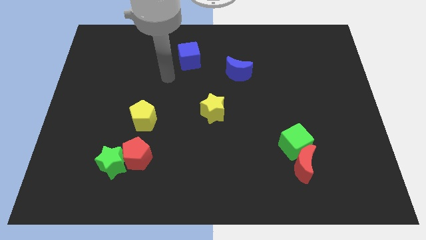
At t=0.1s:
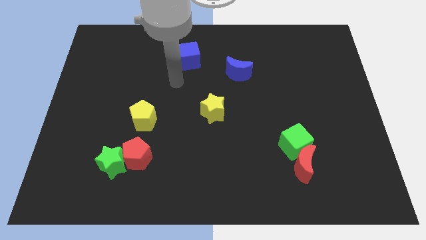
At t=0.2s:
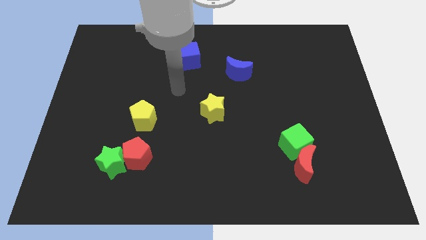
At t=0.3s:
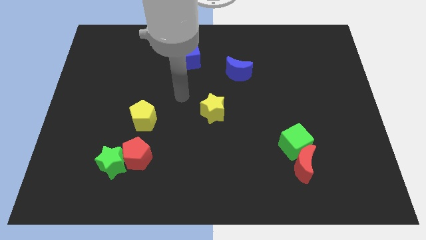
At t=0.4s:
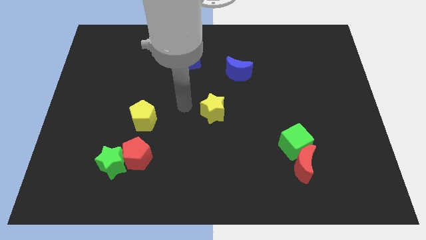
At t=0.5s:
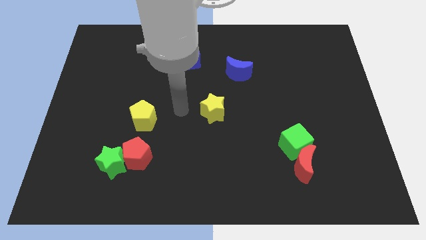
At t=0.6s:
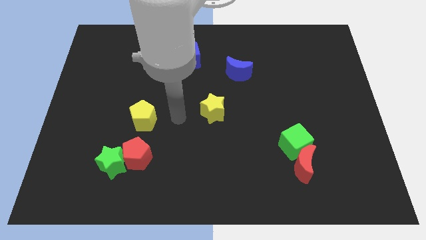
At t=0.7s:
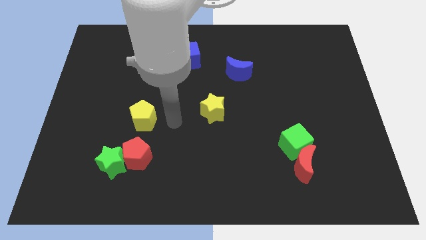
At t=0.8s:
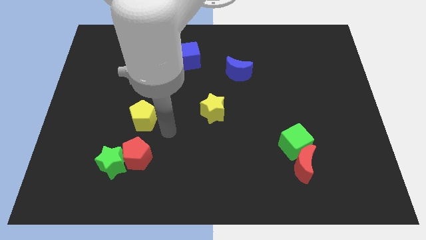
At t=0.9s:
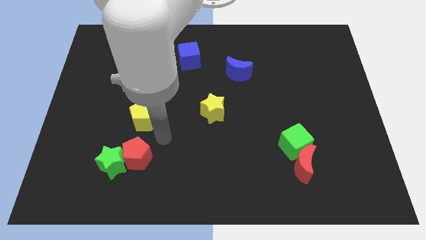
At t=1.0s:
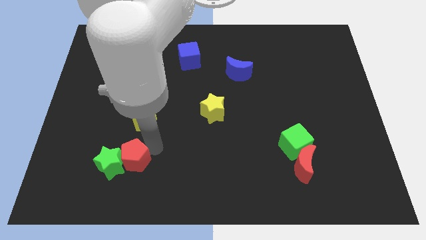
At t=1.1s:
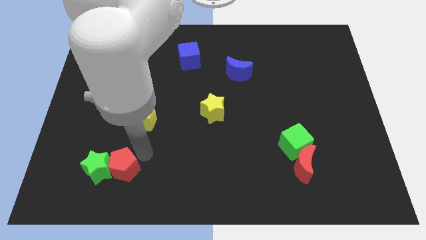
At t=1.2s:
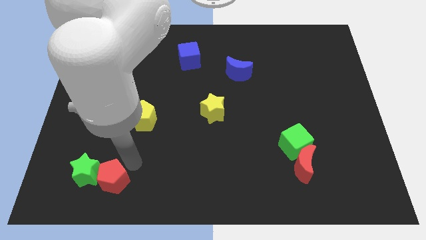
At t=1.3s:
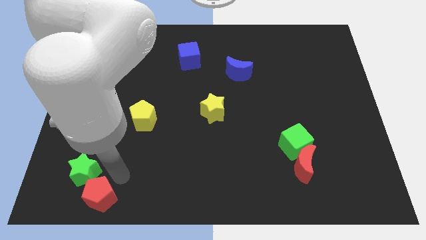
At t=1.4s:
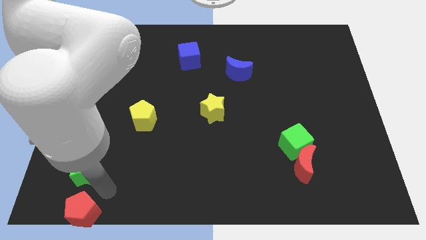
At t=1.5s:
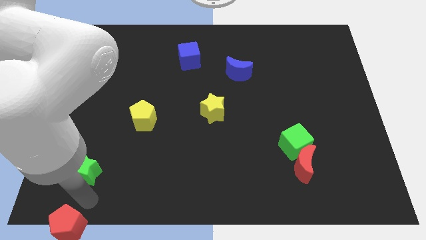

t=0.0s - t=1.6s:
separate the green star from the red pentagon

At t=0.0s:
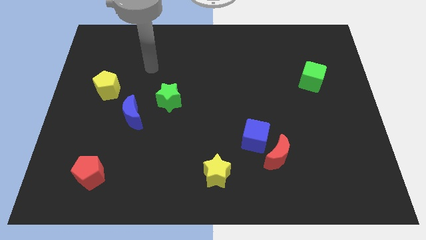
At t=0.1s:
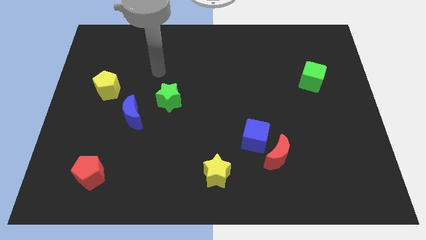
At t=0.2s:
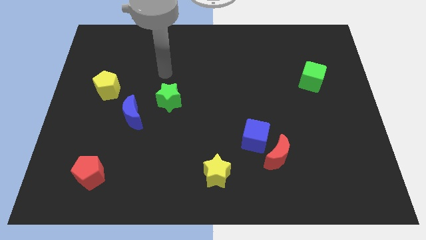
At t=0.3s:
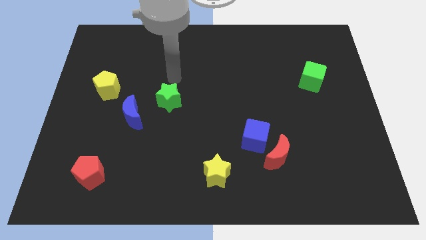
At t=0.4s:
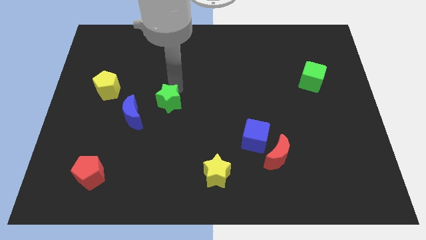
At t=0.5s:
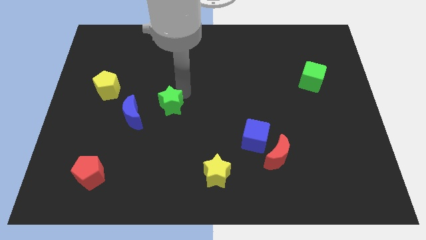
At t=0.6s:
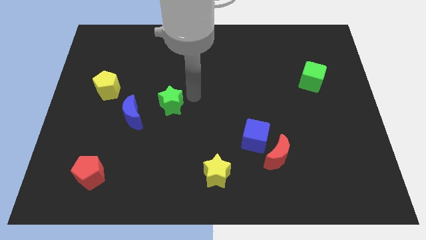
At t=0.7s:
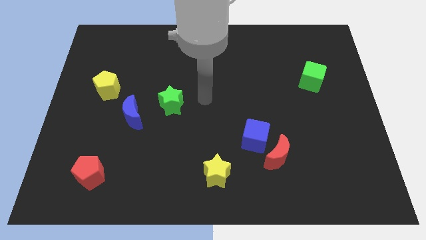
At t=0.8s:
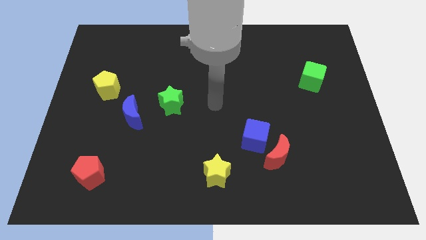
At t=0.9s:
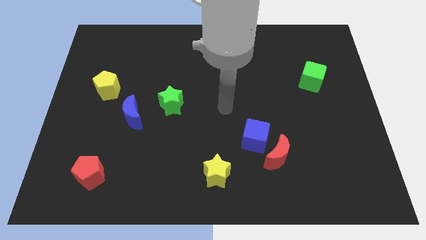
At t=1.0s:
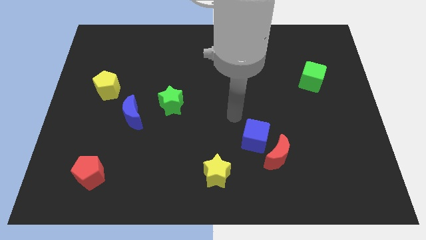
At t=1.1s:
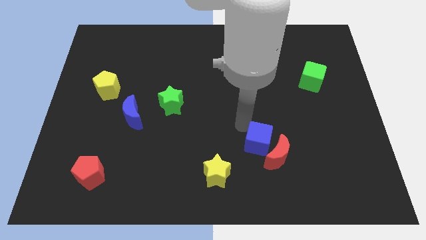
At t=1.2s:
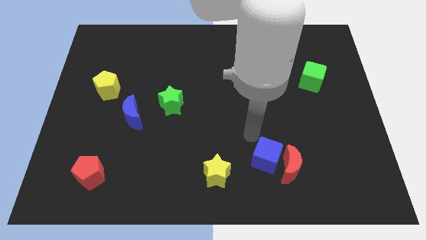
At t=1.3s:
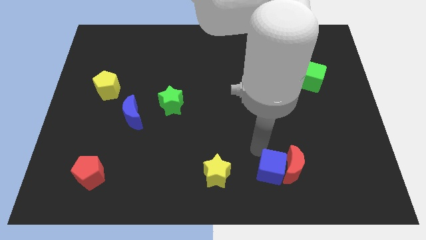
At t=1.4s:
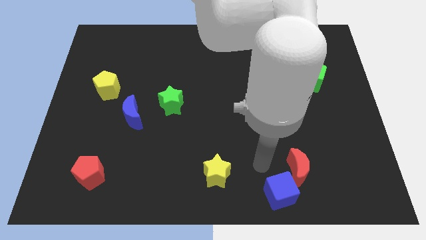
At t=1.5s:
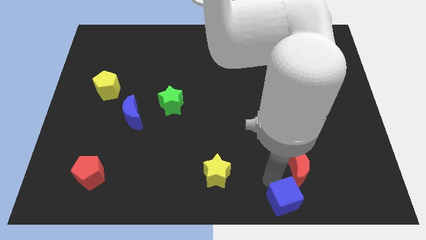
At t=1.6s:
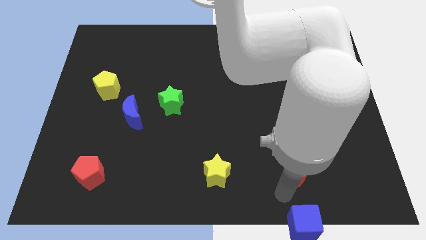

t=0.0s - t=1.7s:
pull the red moon apart from the blue cube

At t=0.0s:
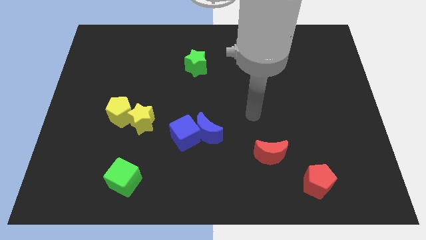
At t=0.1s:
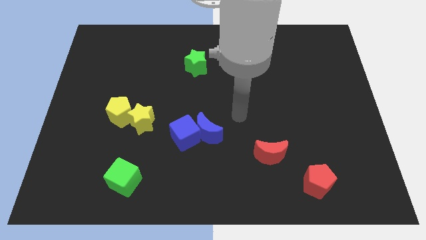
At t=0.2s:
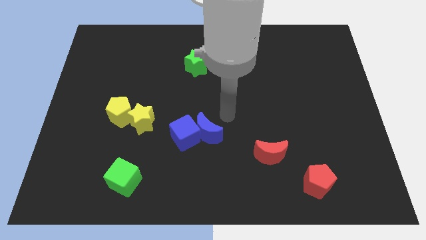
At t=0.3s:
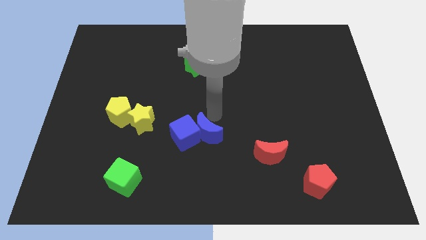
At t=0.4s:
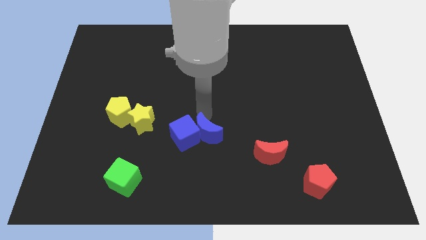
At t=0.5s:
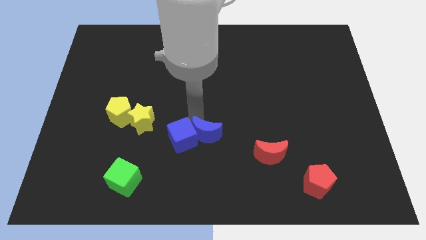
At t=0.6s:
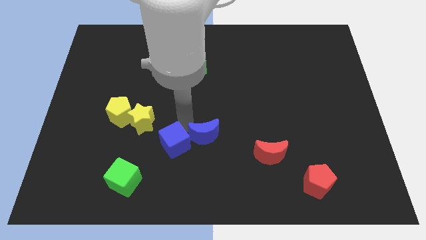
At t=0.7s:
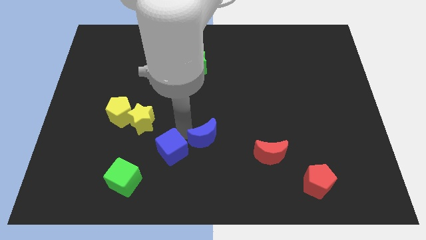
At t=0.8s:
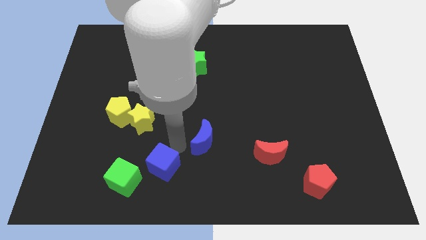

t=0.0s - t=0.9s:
separate the blue moon from the blue cube

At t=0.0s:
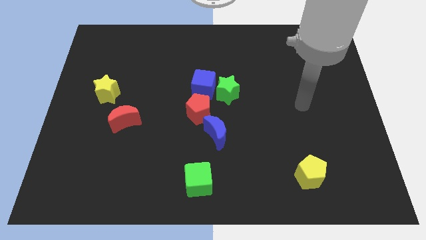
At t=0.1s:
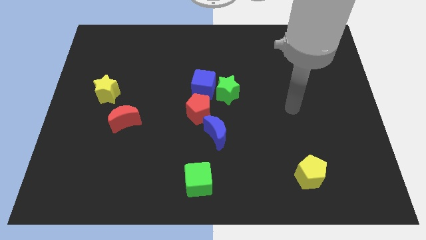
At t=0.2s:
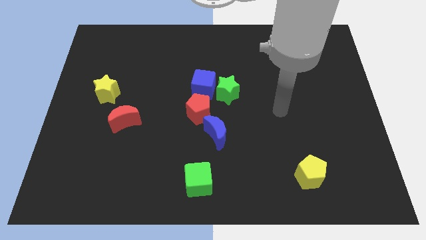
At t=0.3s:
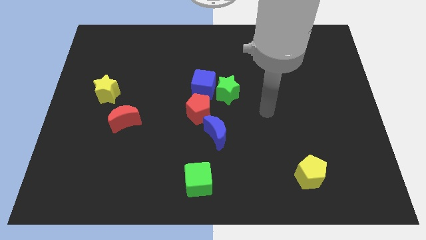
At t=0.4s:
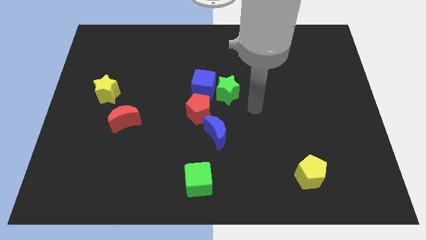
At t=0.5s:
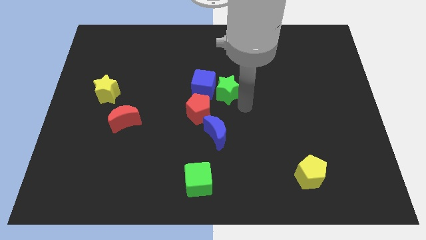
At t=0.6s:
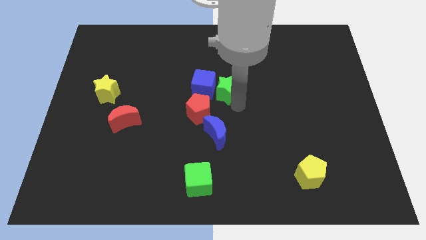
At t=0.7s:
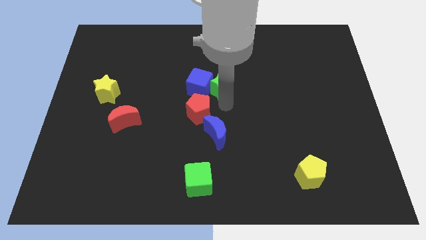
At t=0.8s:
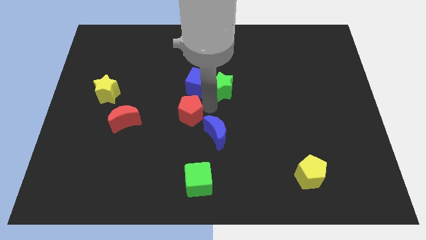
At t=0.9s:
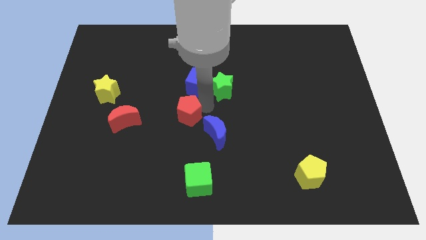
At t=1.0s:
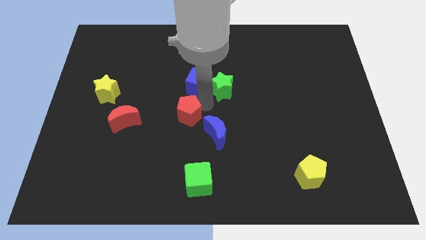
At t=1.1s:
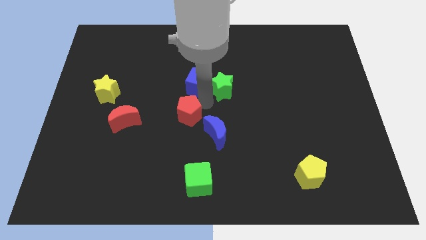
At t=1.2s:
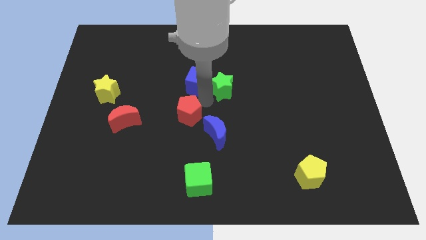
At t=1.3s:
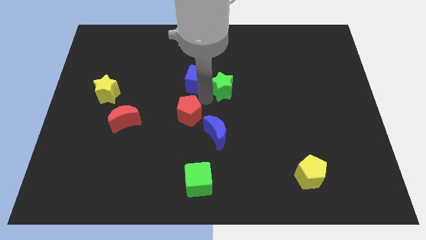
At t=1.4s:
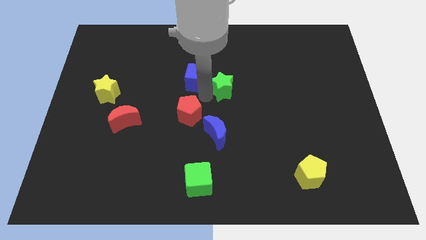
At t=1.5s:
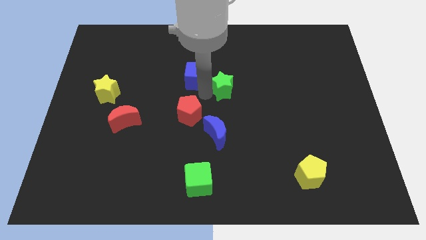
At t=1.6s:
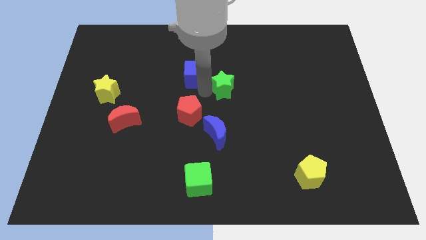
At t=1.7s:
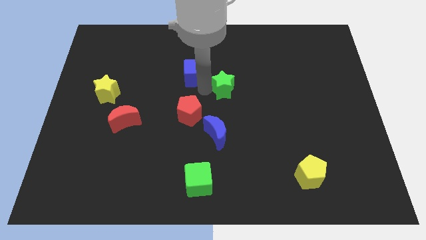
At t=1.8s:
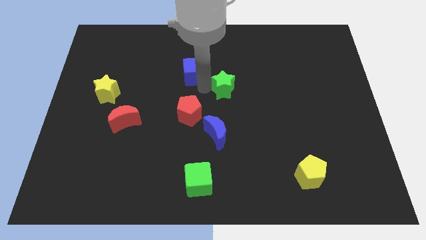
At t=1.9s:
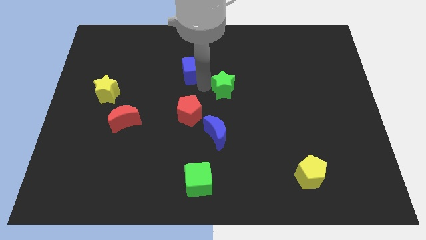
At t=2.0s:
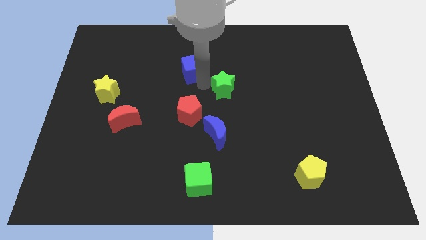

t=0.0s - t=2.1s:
pull the blue cube apart from the green star and red pentagon

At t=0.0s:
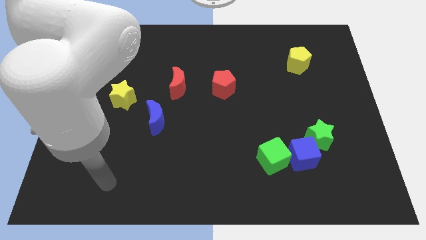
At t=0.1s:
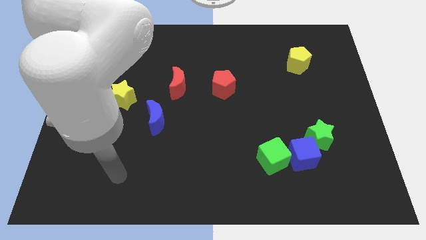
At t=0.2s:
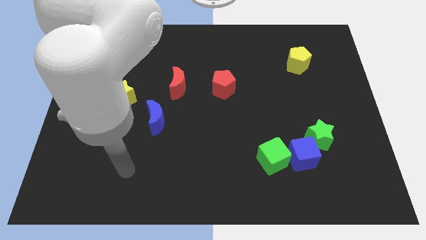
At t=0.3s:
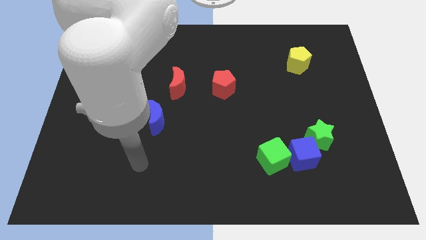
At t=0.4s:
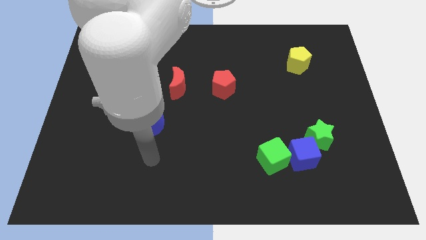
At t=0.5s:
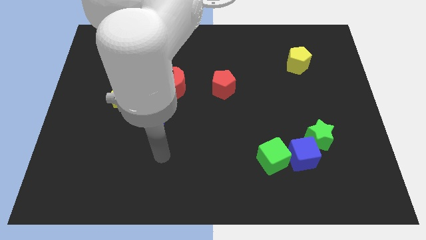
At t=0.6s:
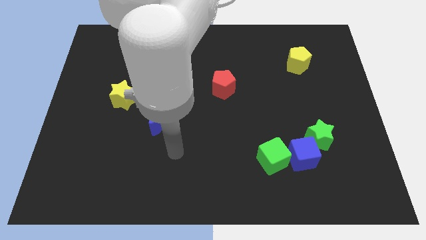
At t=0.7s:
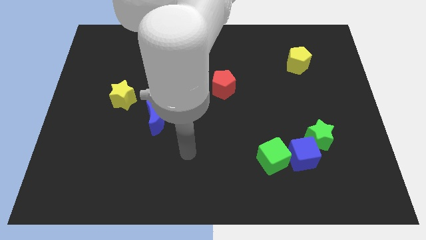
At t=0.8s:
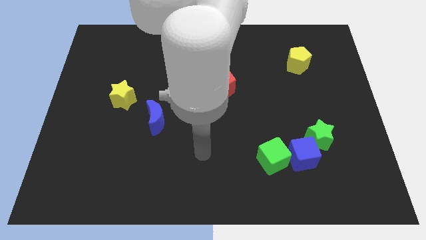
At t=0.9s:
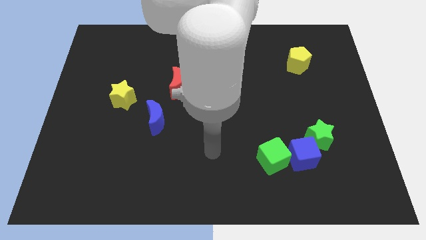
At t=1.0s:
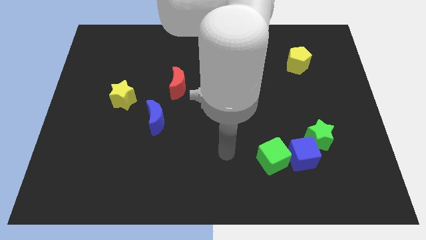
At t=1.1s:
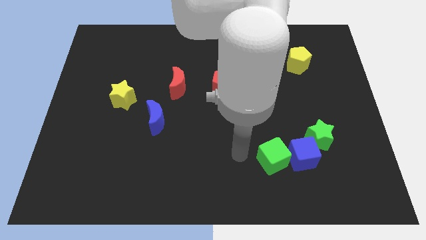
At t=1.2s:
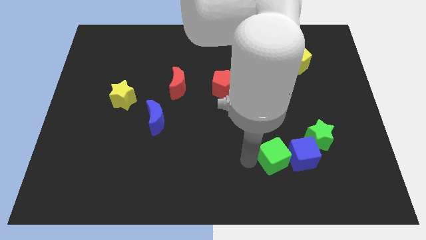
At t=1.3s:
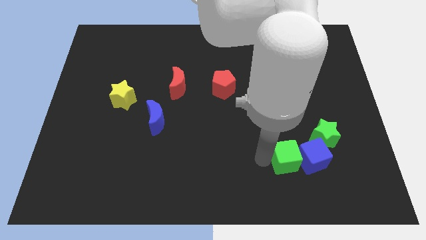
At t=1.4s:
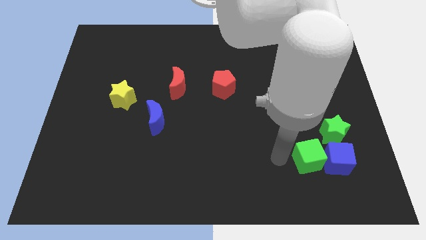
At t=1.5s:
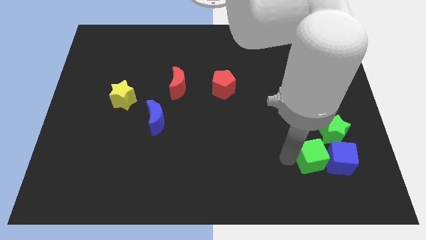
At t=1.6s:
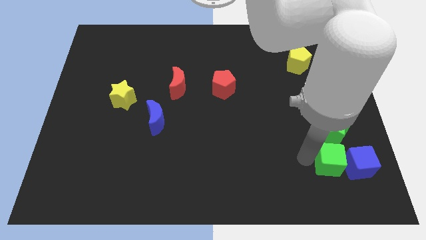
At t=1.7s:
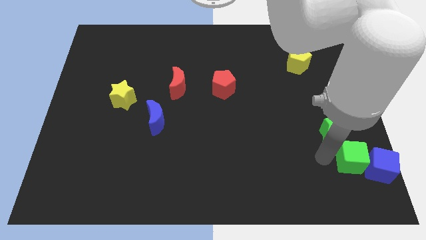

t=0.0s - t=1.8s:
separate the green star from the blue cube

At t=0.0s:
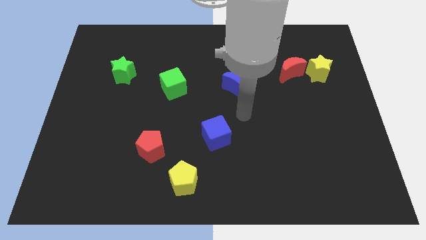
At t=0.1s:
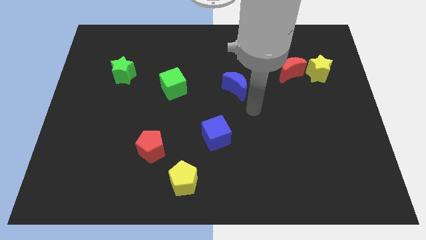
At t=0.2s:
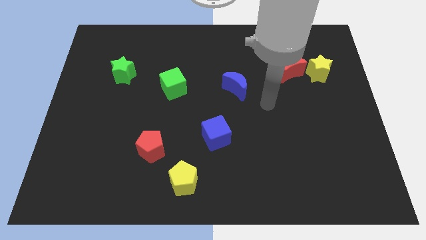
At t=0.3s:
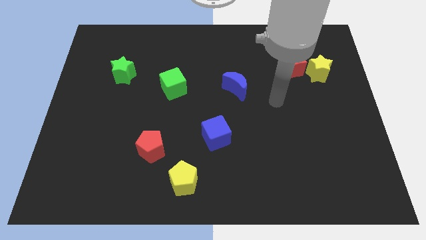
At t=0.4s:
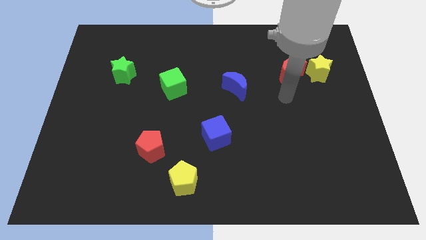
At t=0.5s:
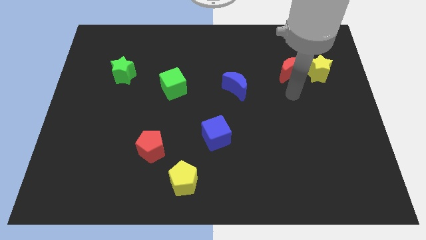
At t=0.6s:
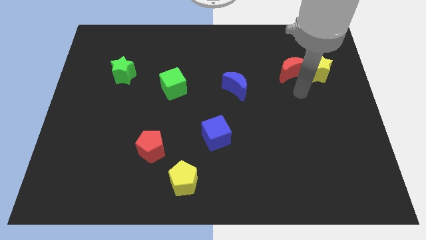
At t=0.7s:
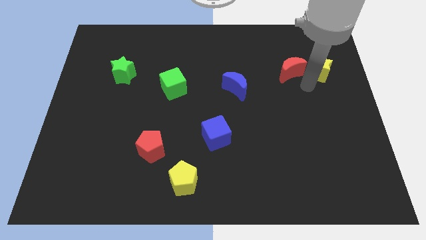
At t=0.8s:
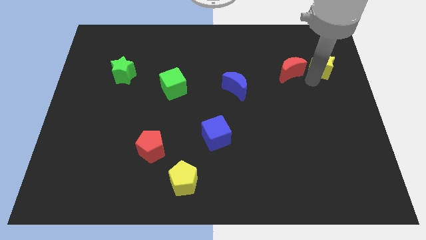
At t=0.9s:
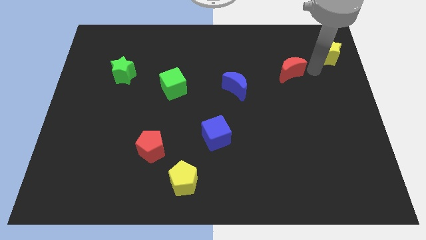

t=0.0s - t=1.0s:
pull the red moon apart from the yellow star
